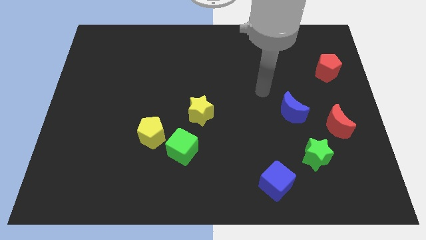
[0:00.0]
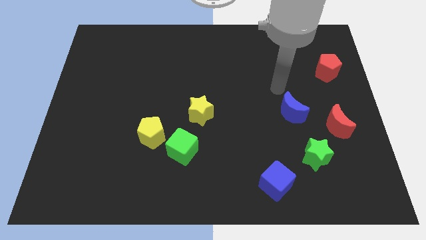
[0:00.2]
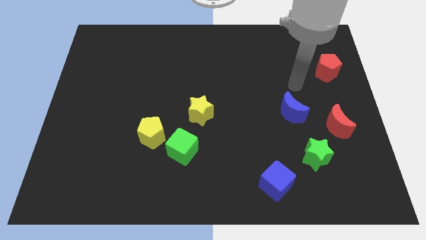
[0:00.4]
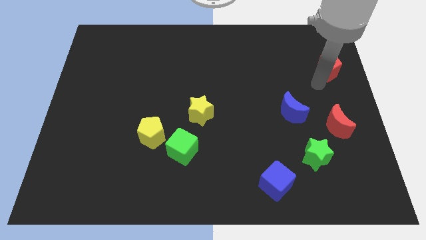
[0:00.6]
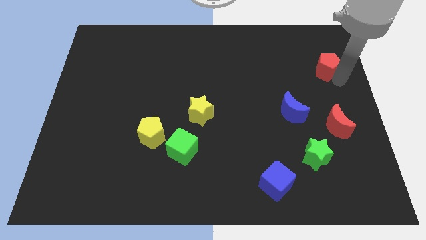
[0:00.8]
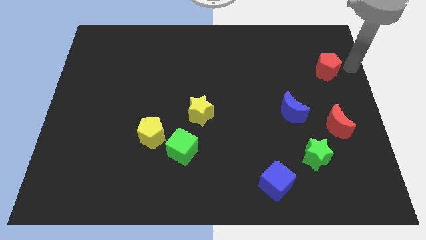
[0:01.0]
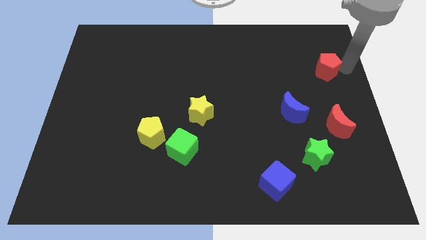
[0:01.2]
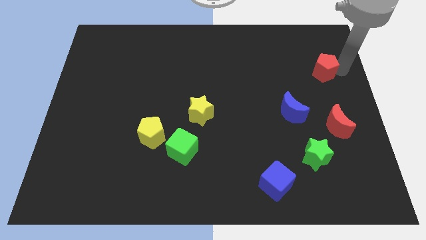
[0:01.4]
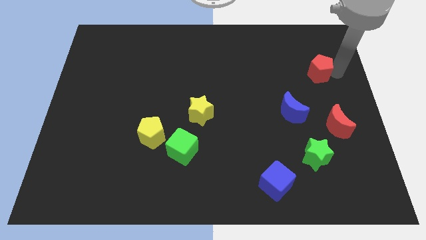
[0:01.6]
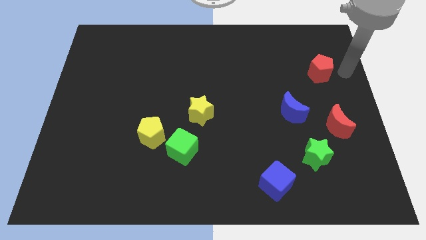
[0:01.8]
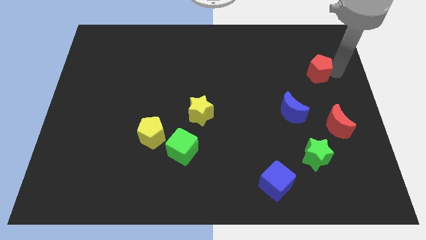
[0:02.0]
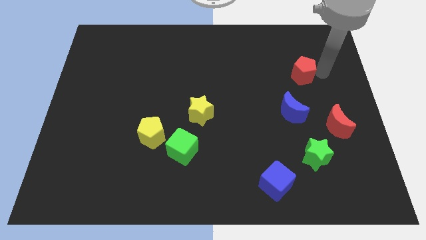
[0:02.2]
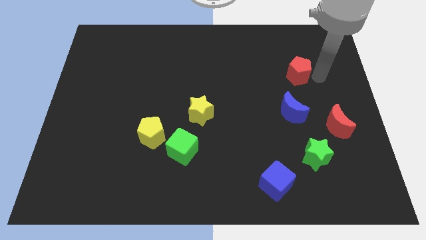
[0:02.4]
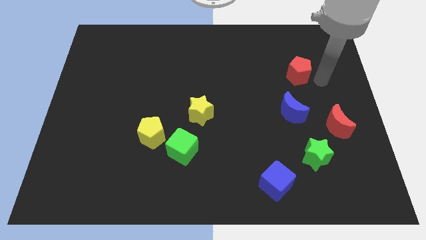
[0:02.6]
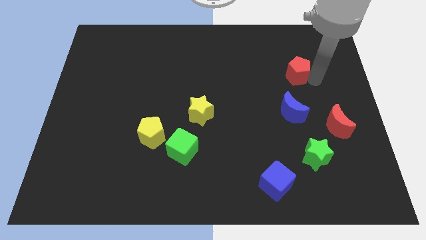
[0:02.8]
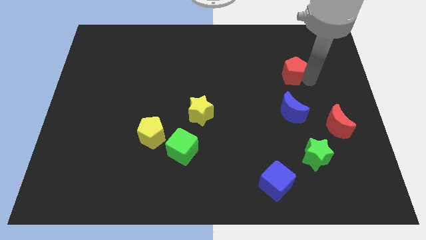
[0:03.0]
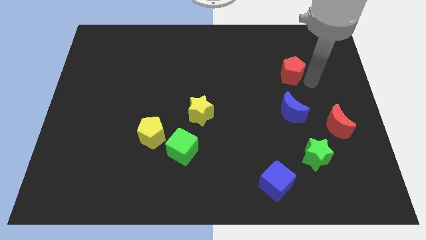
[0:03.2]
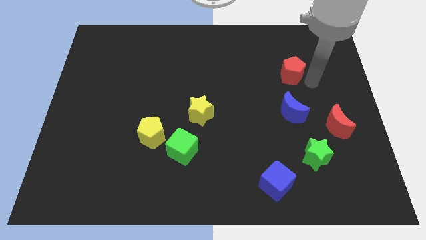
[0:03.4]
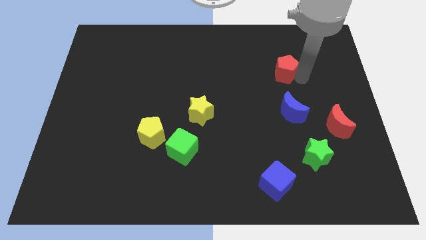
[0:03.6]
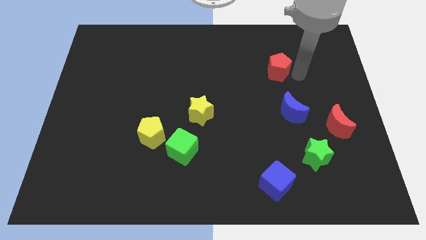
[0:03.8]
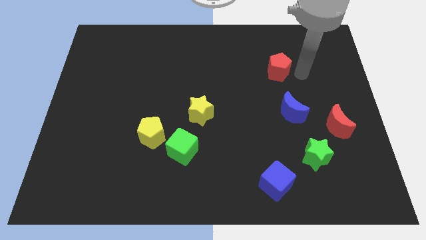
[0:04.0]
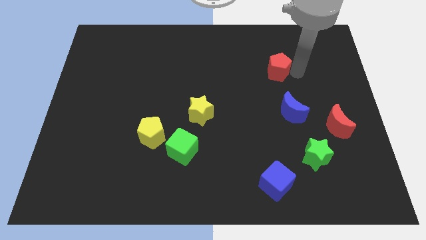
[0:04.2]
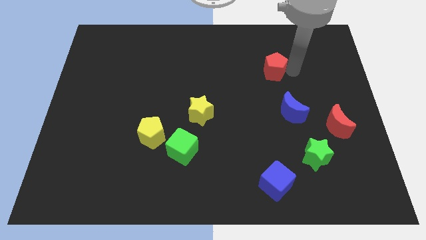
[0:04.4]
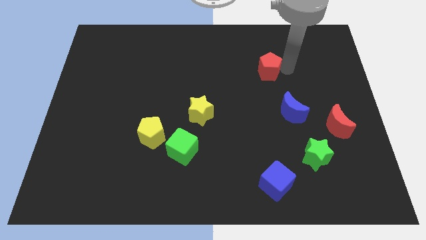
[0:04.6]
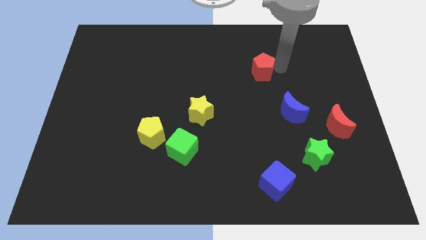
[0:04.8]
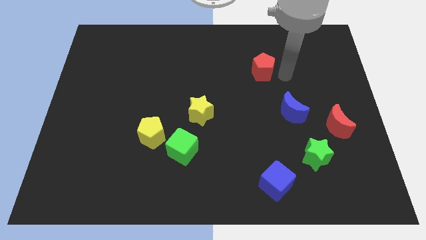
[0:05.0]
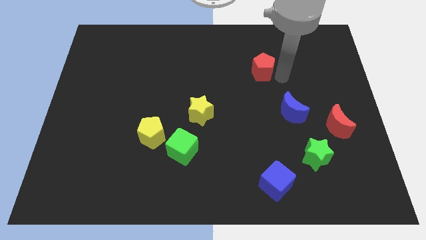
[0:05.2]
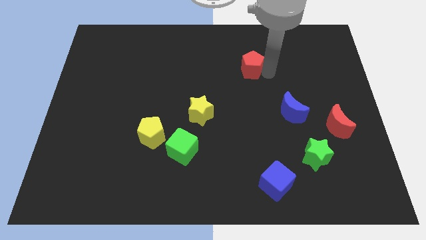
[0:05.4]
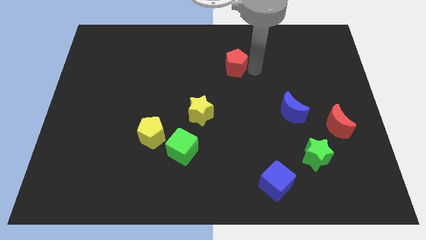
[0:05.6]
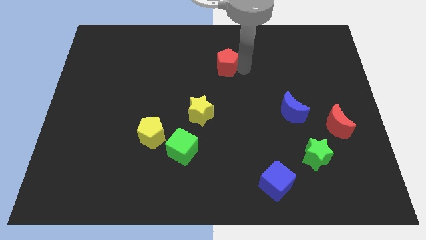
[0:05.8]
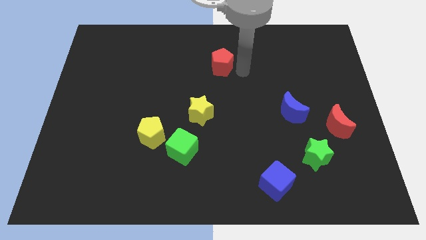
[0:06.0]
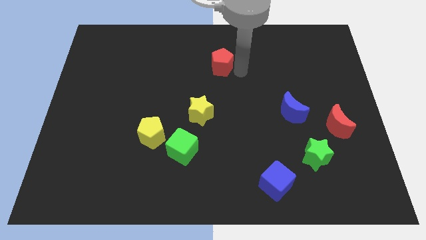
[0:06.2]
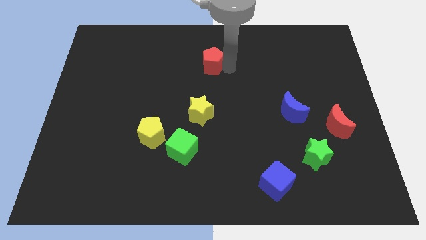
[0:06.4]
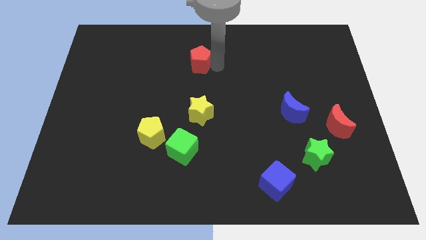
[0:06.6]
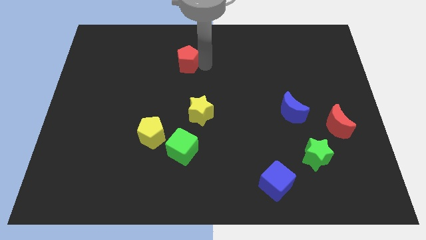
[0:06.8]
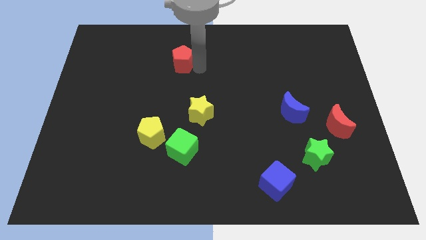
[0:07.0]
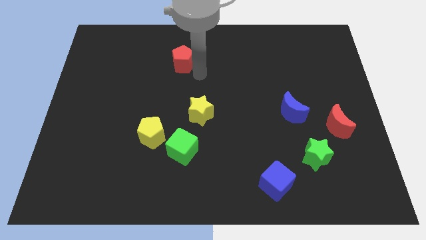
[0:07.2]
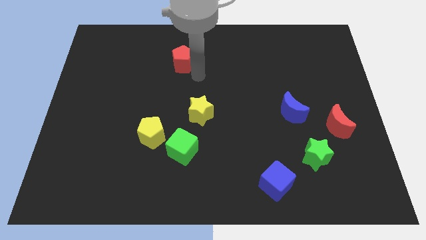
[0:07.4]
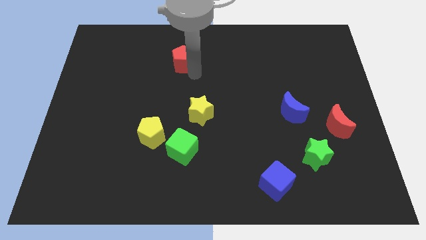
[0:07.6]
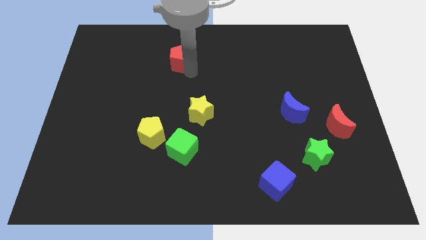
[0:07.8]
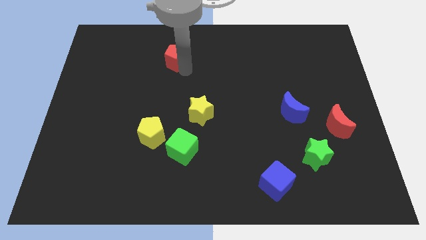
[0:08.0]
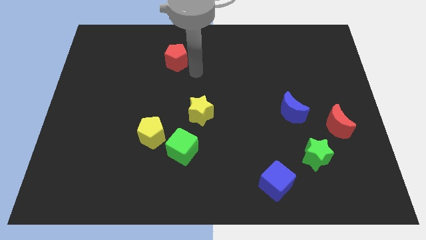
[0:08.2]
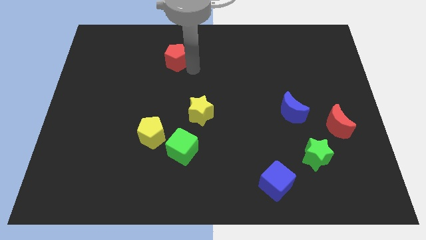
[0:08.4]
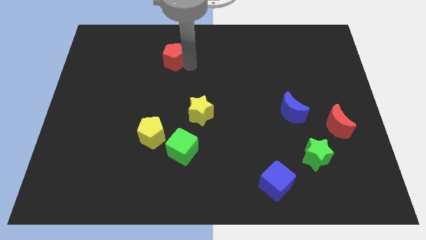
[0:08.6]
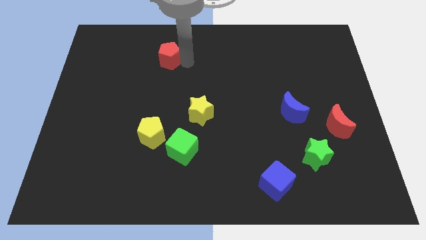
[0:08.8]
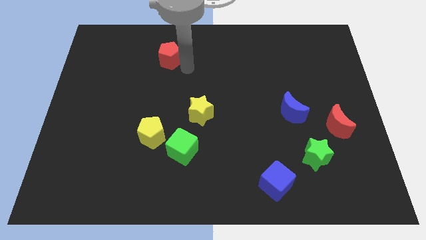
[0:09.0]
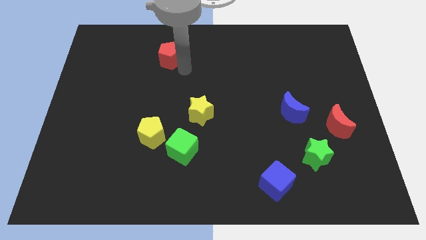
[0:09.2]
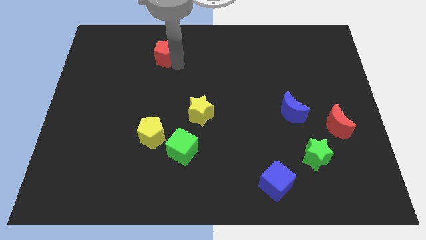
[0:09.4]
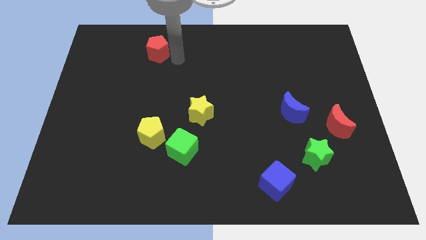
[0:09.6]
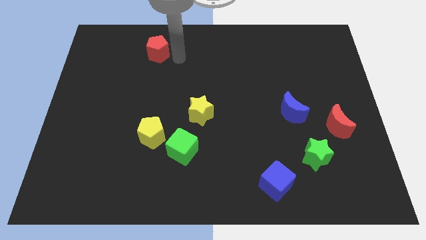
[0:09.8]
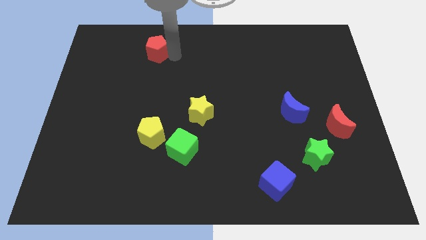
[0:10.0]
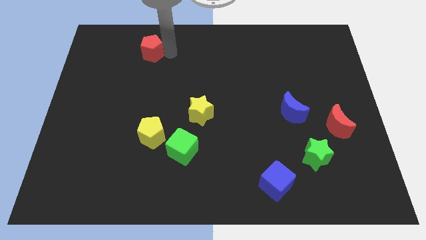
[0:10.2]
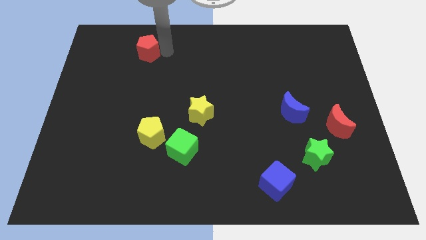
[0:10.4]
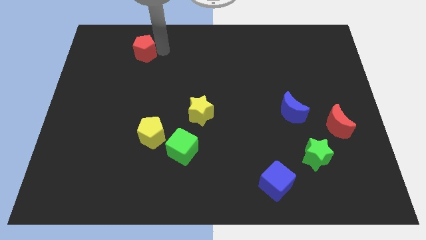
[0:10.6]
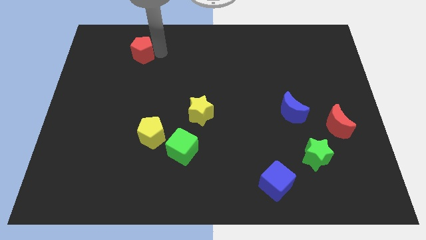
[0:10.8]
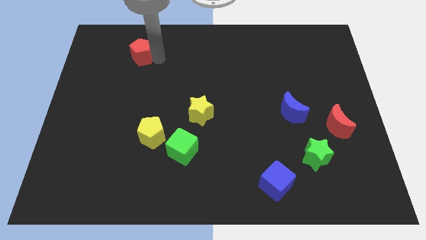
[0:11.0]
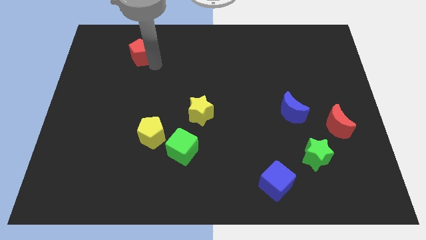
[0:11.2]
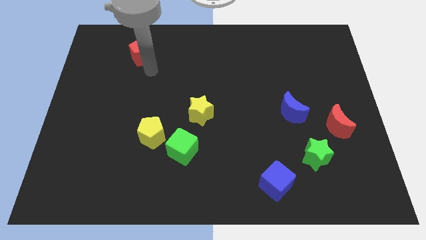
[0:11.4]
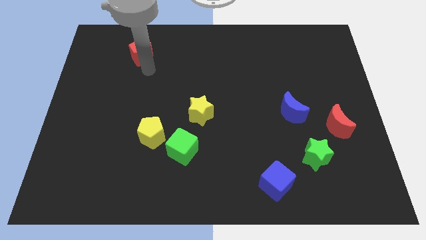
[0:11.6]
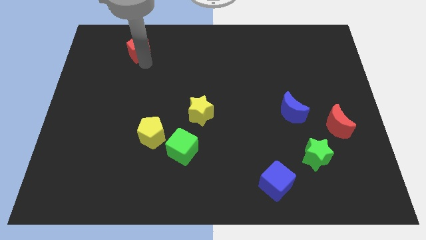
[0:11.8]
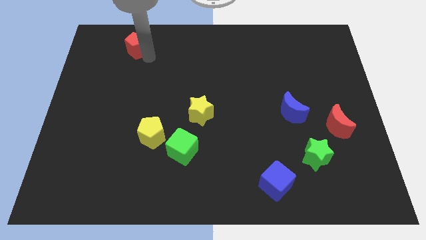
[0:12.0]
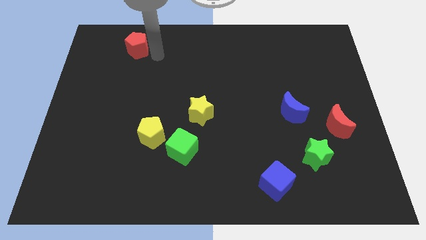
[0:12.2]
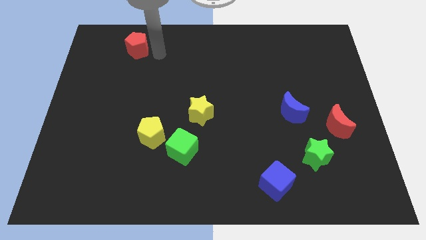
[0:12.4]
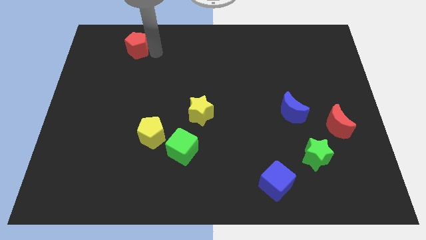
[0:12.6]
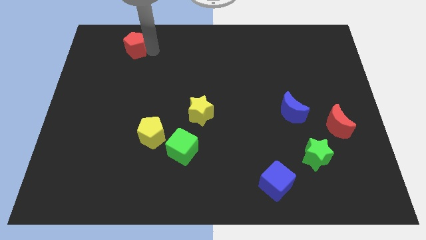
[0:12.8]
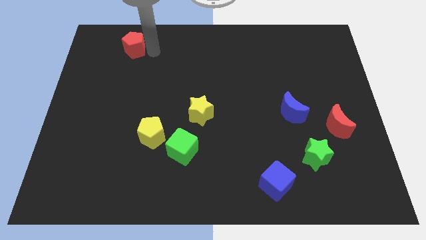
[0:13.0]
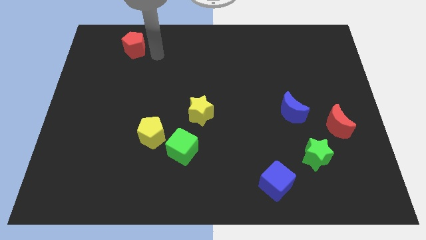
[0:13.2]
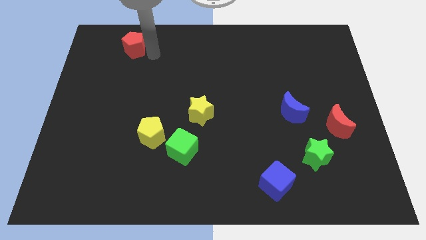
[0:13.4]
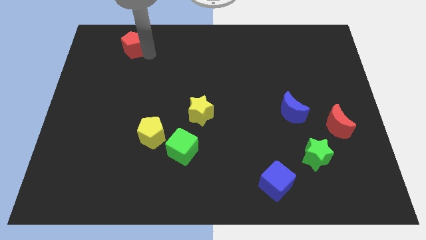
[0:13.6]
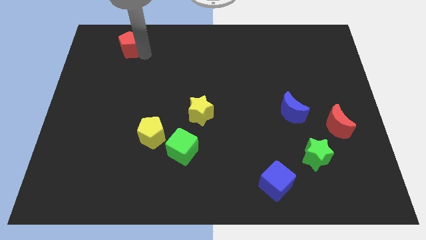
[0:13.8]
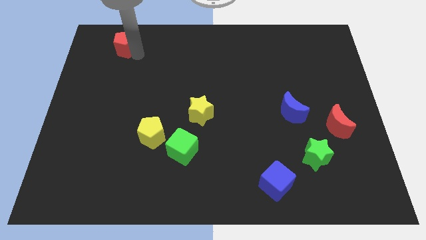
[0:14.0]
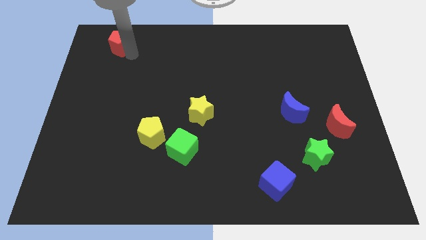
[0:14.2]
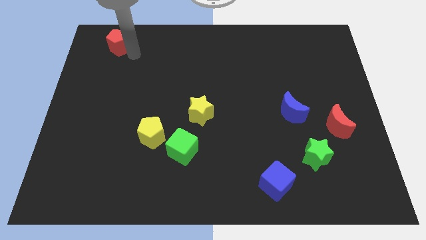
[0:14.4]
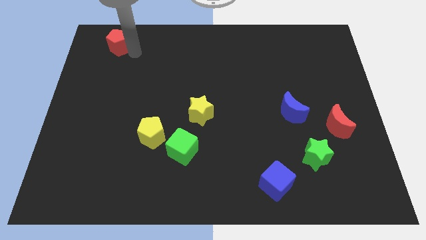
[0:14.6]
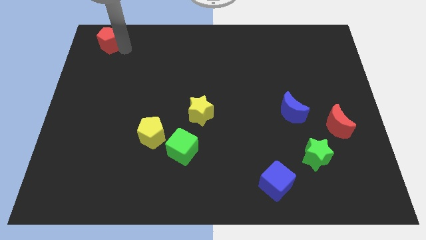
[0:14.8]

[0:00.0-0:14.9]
move the red pentagon to the top left of the board
